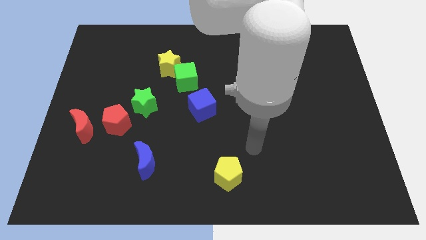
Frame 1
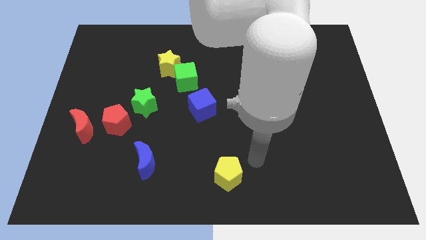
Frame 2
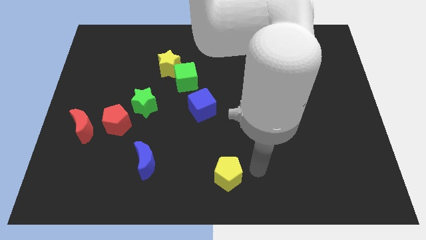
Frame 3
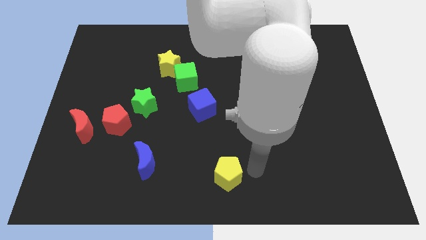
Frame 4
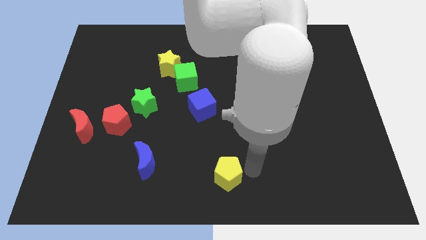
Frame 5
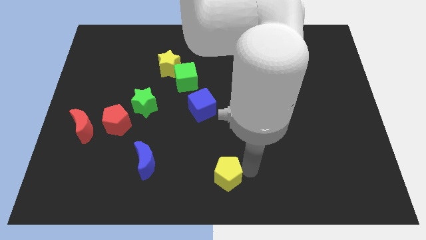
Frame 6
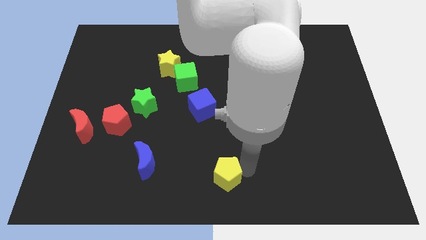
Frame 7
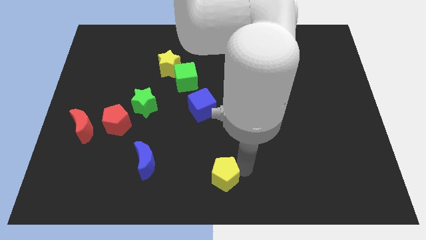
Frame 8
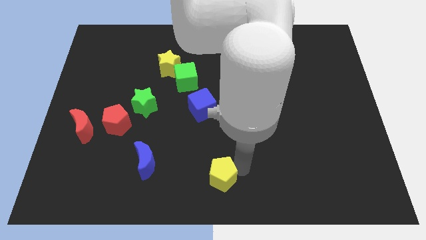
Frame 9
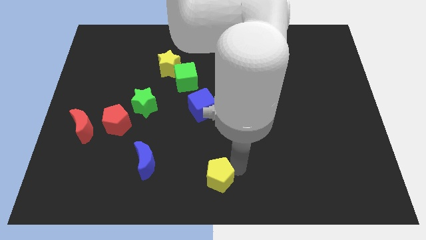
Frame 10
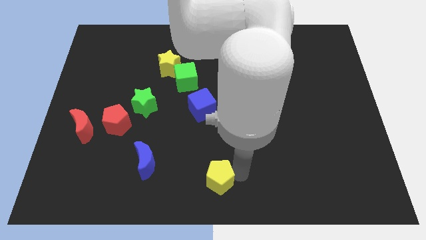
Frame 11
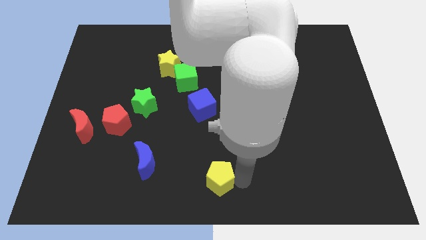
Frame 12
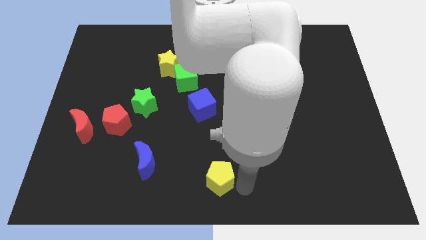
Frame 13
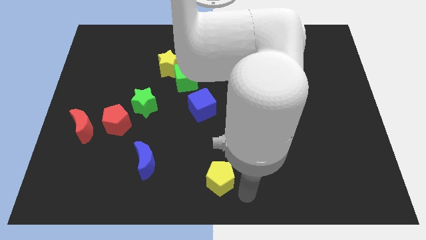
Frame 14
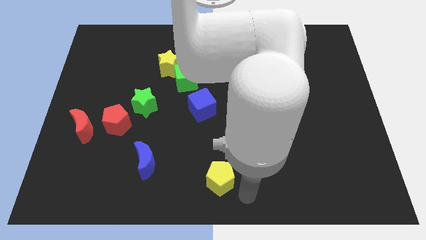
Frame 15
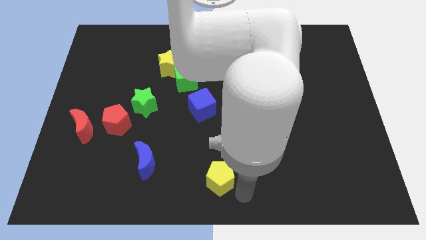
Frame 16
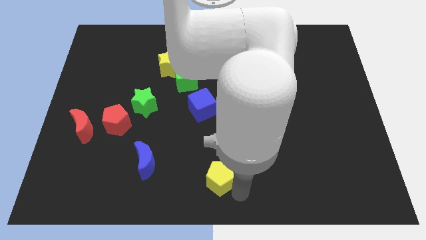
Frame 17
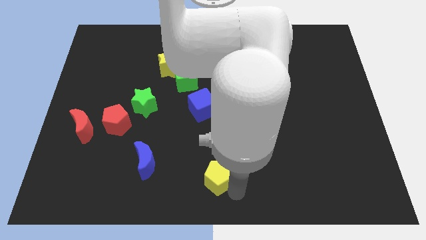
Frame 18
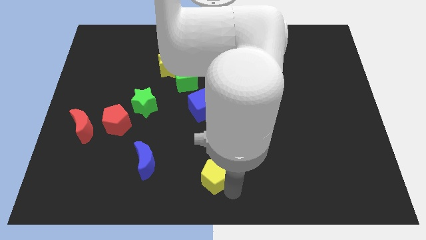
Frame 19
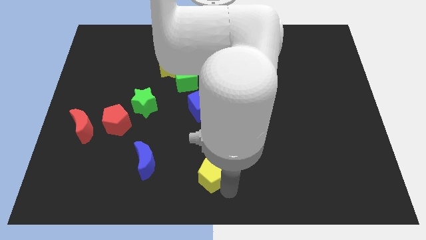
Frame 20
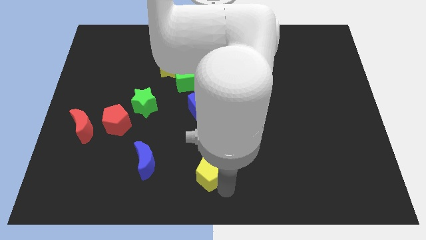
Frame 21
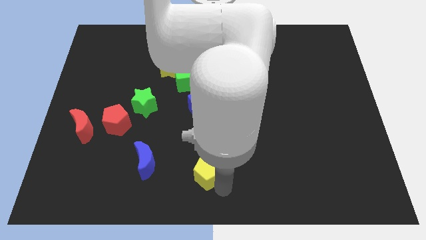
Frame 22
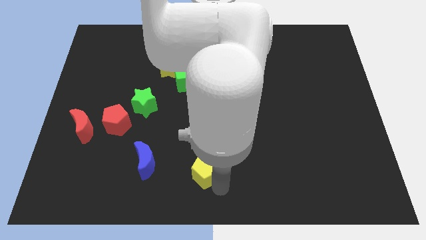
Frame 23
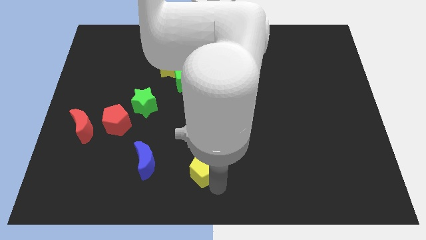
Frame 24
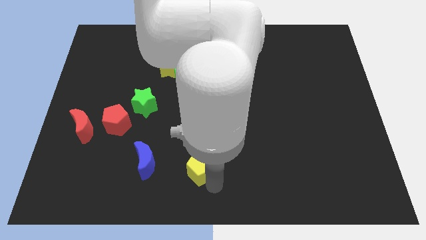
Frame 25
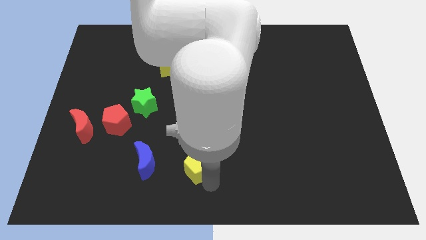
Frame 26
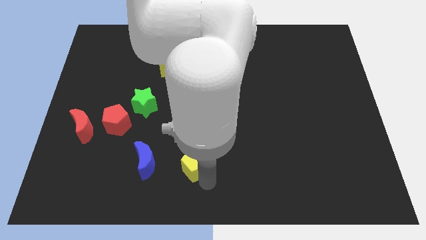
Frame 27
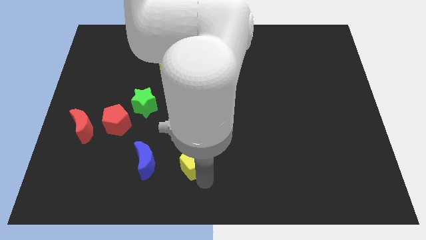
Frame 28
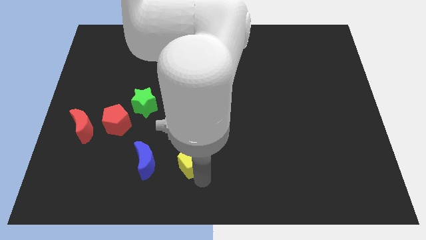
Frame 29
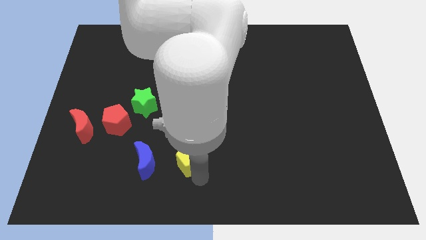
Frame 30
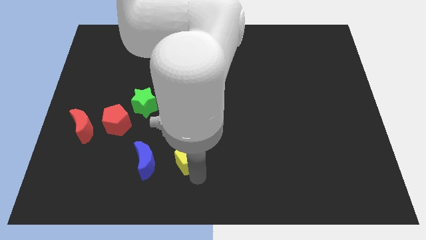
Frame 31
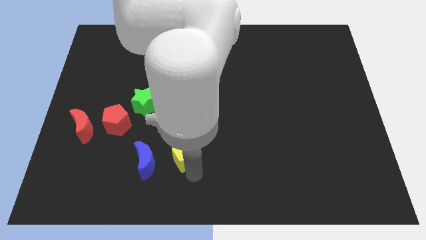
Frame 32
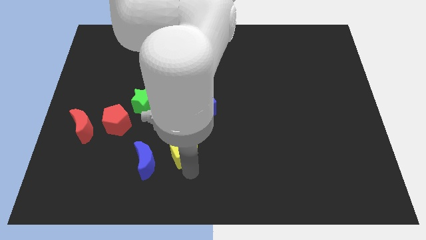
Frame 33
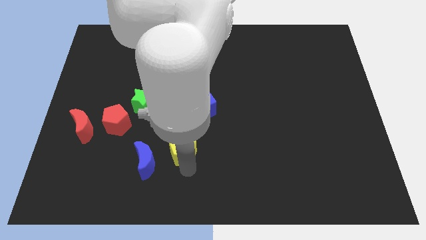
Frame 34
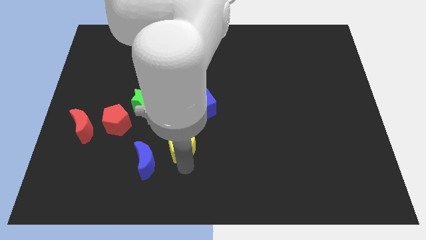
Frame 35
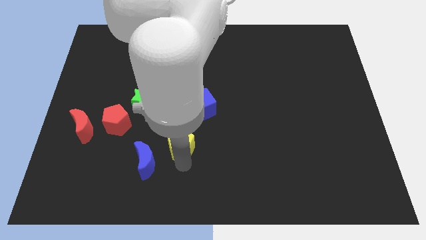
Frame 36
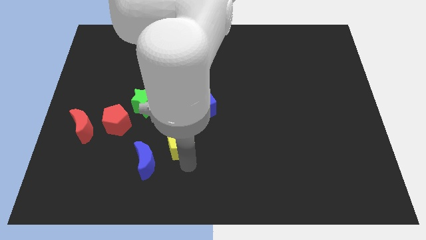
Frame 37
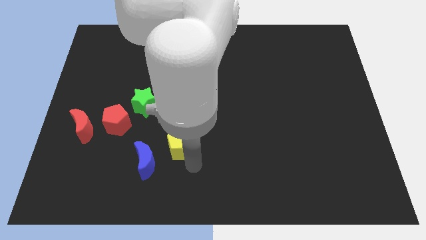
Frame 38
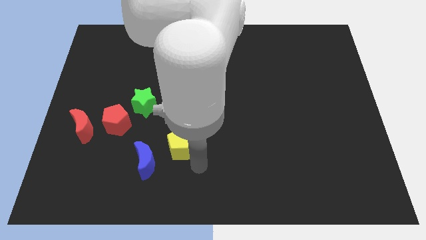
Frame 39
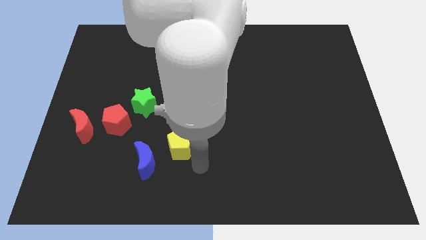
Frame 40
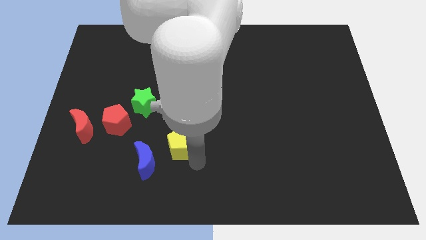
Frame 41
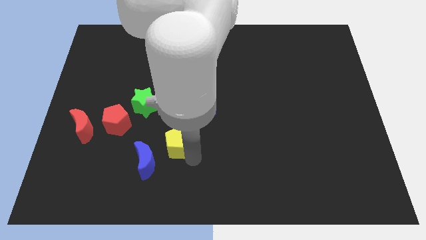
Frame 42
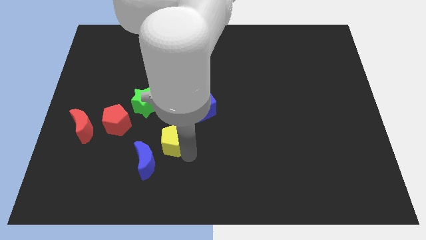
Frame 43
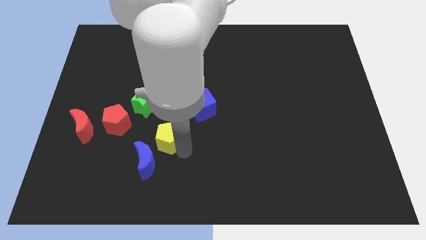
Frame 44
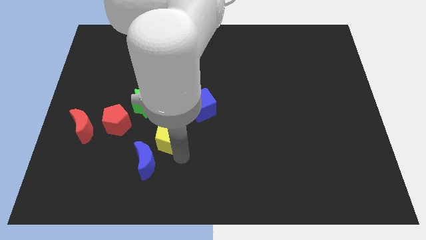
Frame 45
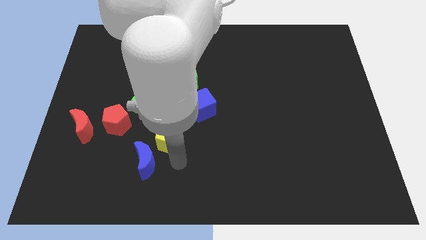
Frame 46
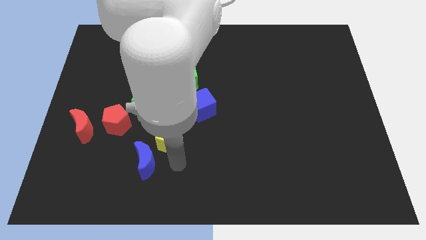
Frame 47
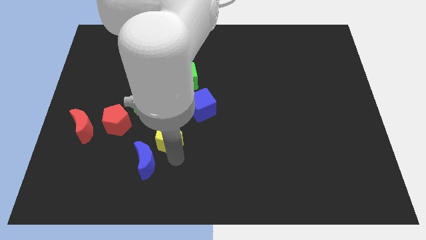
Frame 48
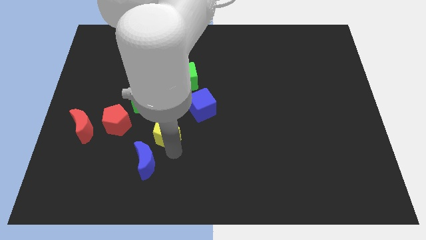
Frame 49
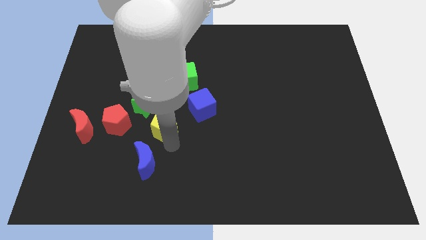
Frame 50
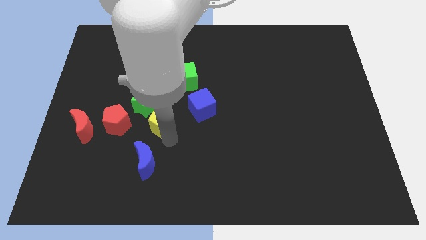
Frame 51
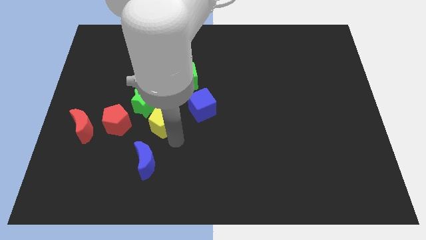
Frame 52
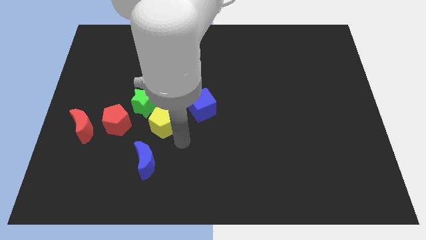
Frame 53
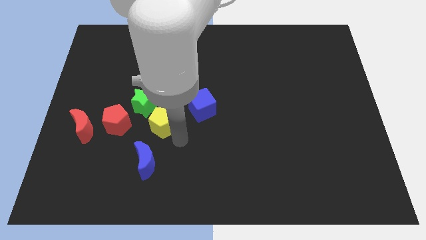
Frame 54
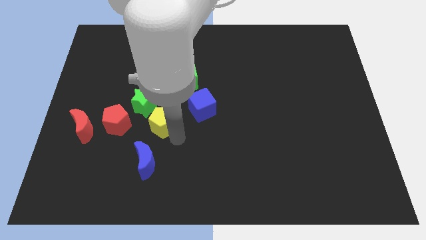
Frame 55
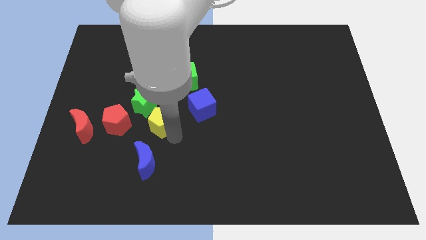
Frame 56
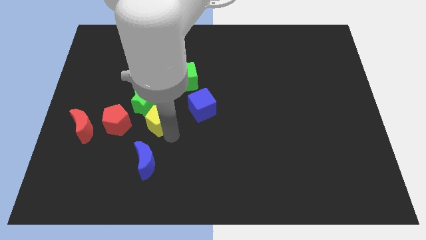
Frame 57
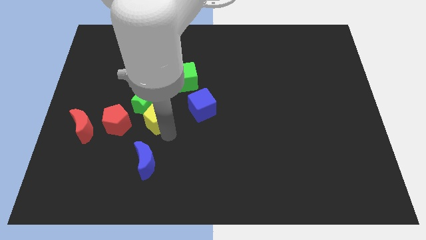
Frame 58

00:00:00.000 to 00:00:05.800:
push the yellow pentagon towards the green star

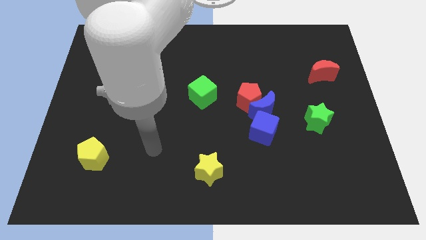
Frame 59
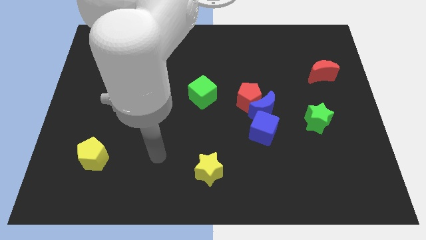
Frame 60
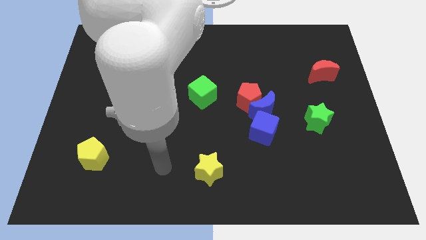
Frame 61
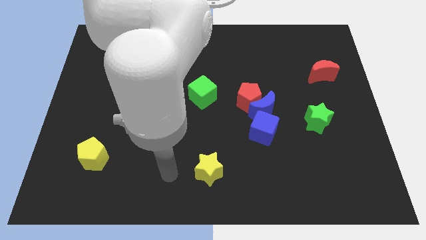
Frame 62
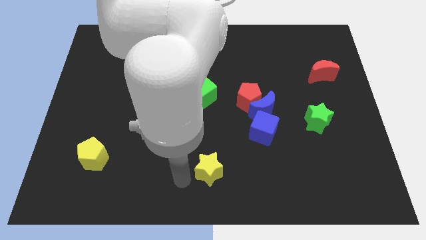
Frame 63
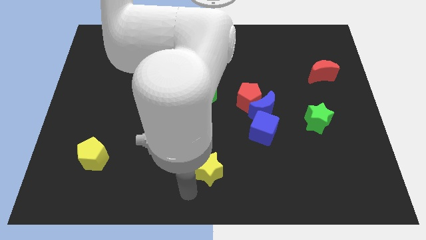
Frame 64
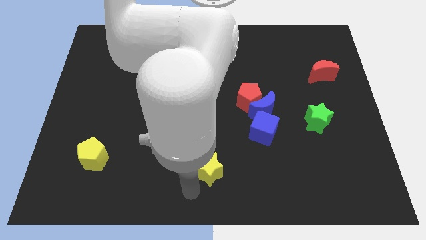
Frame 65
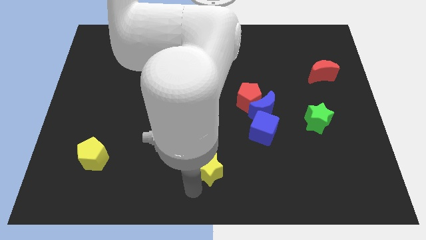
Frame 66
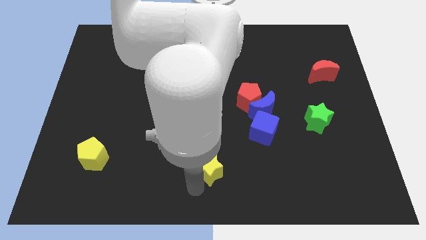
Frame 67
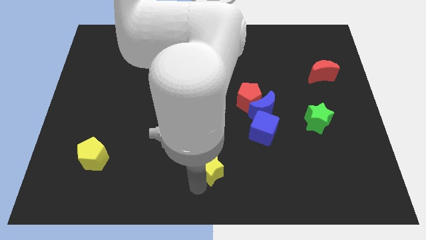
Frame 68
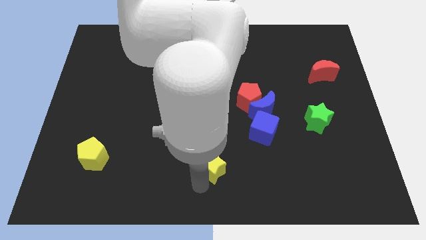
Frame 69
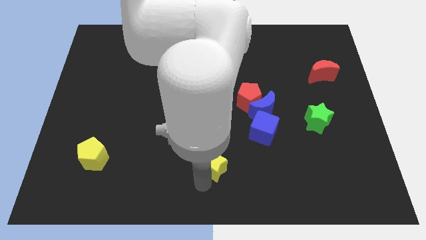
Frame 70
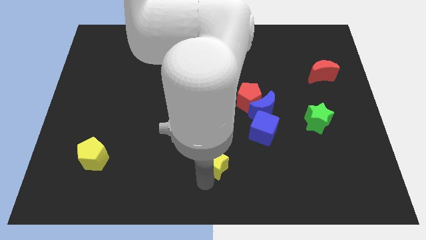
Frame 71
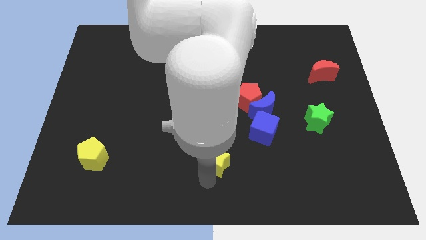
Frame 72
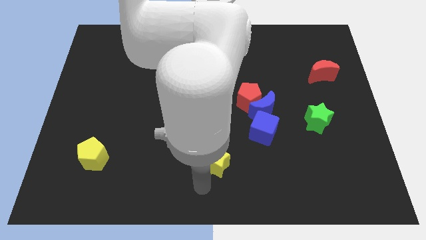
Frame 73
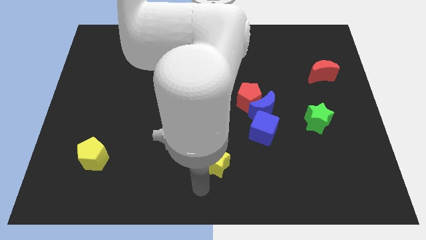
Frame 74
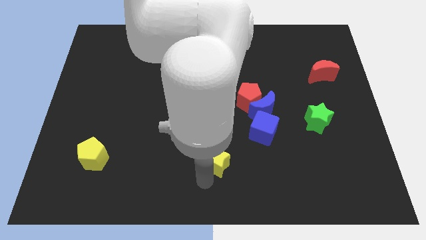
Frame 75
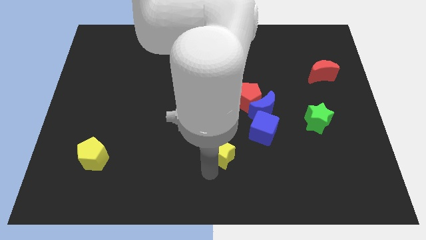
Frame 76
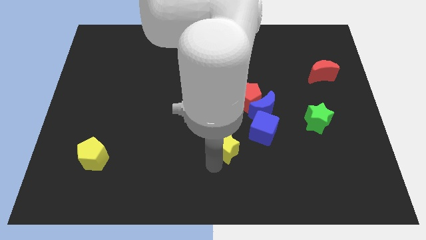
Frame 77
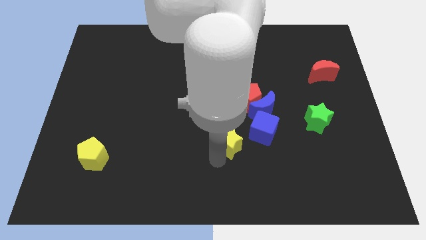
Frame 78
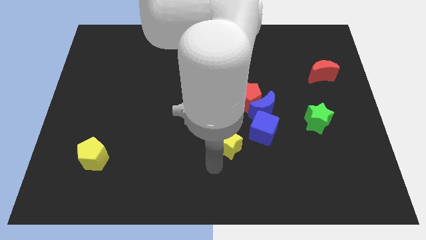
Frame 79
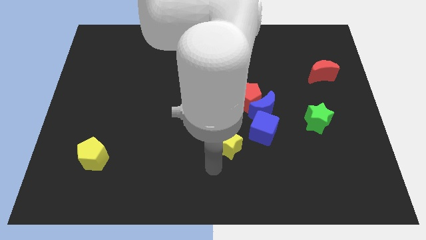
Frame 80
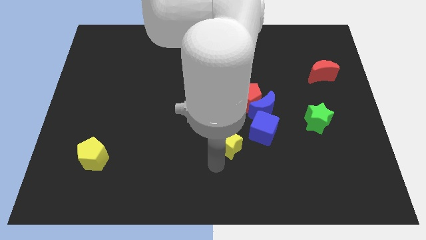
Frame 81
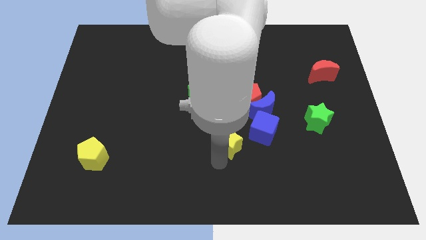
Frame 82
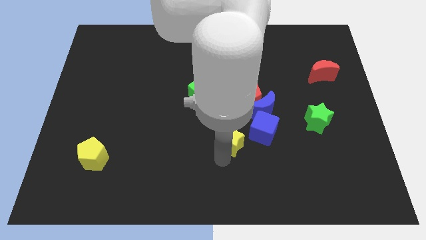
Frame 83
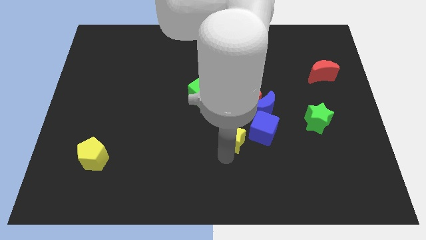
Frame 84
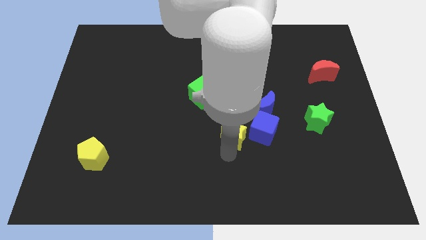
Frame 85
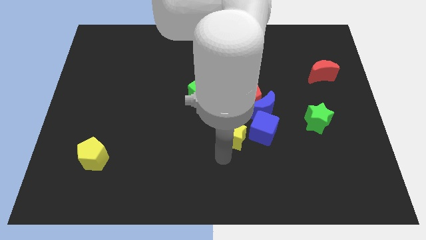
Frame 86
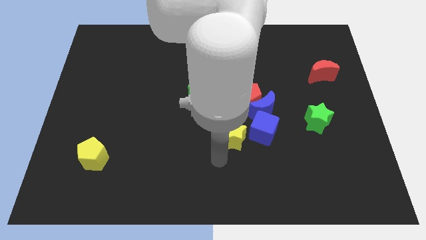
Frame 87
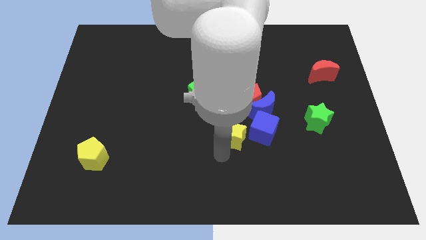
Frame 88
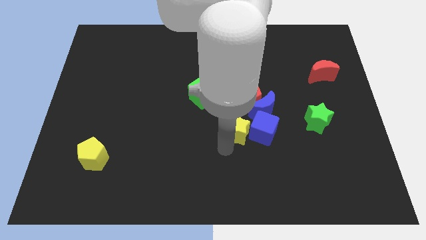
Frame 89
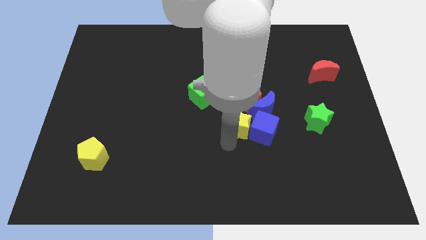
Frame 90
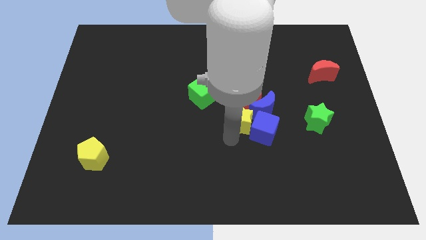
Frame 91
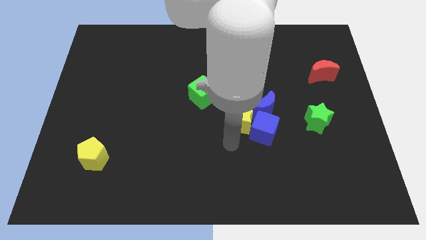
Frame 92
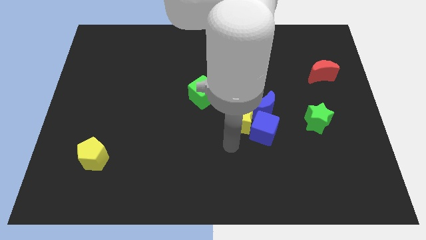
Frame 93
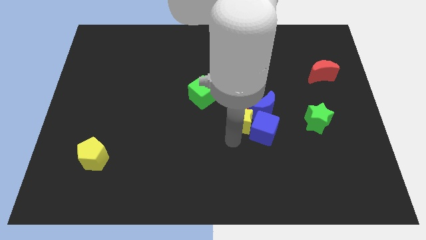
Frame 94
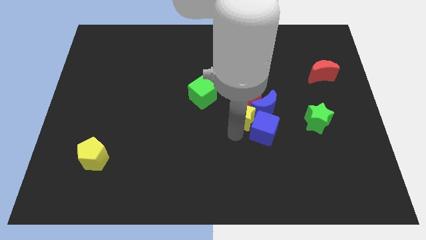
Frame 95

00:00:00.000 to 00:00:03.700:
put the yellow star towards the red pentagon
